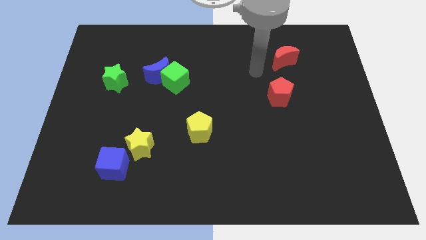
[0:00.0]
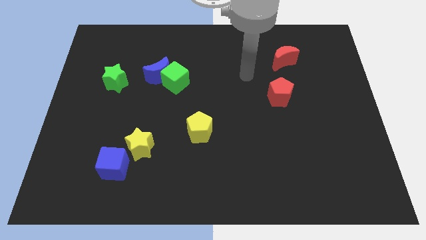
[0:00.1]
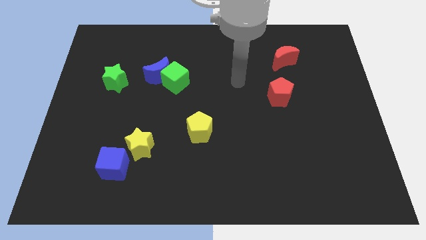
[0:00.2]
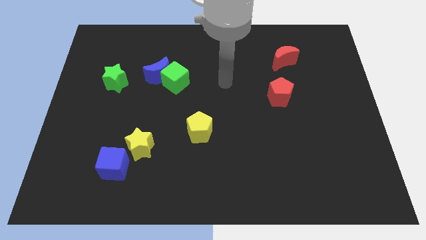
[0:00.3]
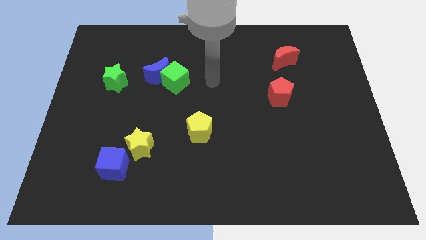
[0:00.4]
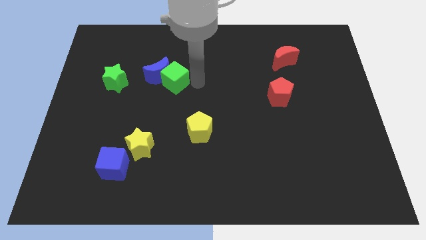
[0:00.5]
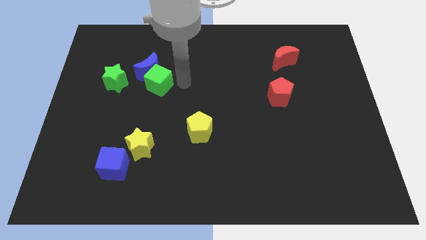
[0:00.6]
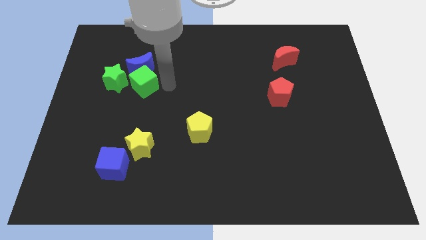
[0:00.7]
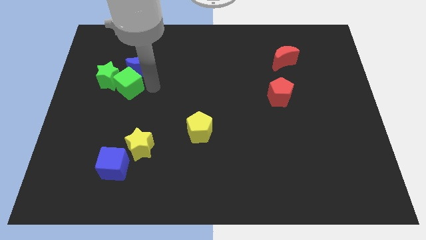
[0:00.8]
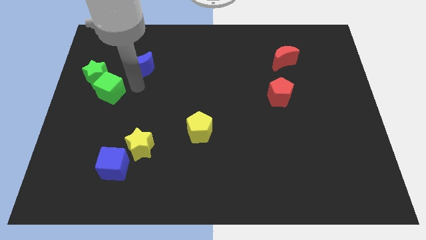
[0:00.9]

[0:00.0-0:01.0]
pull the blue moon apart from the green cube

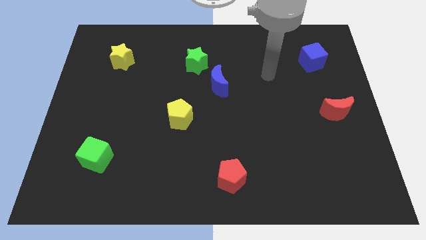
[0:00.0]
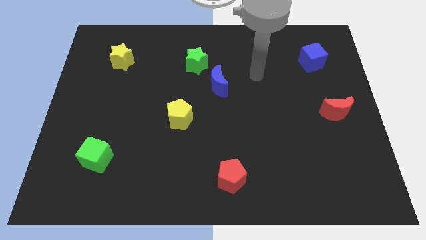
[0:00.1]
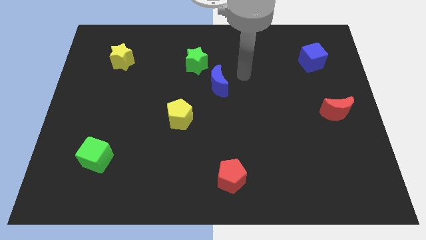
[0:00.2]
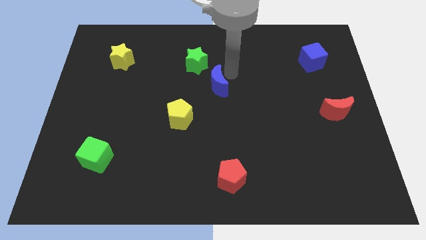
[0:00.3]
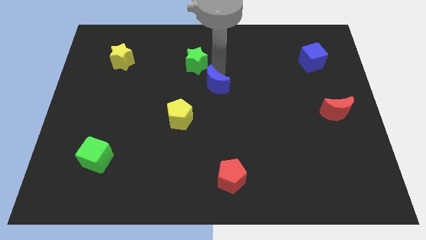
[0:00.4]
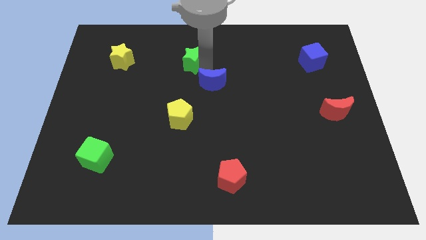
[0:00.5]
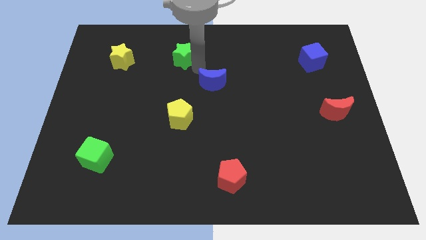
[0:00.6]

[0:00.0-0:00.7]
separate the blue moon from the green star

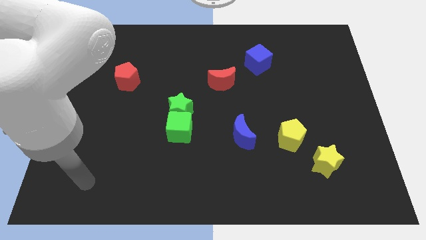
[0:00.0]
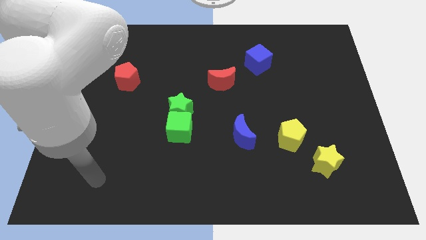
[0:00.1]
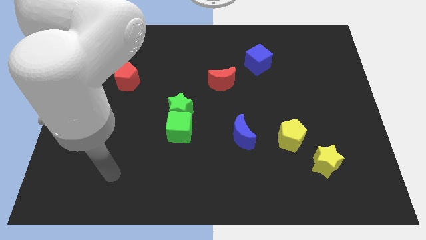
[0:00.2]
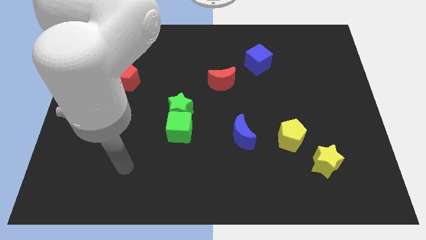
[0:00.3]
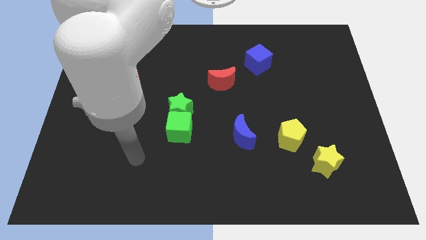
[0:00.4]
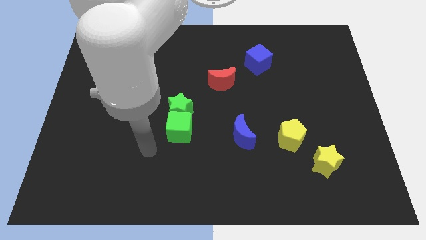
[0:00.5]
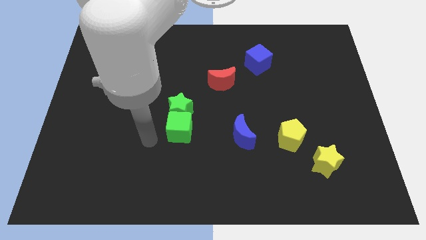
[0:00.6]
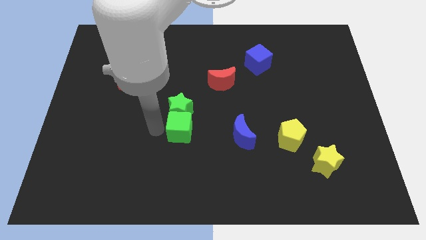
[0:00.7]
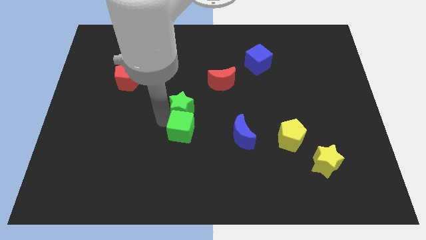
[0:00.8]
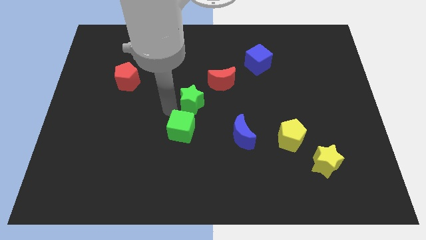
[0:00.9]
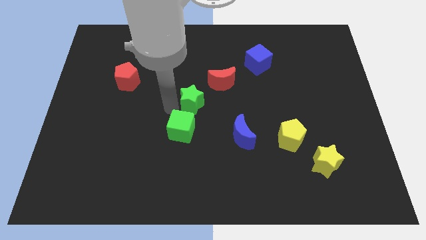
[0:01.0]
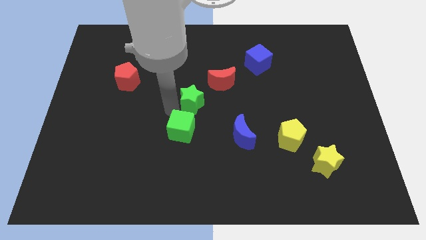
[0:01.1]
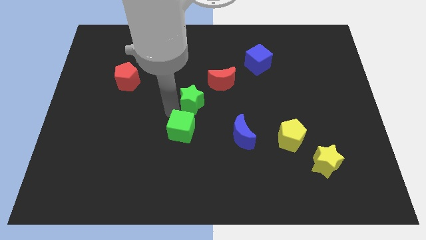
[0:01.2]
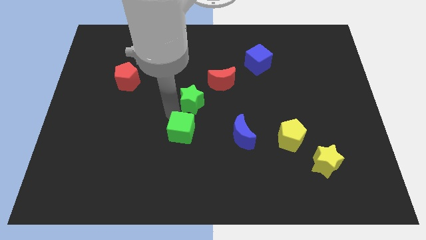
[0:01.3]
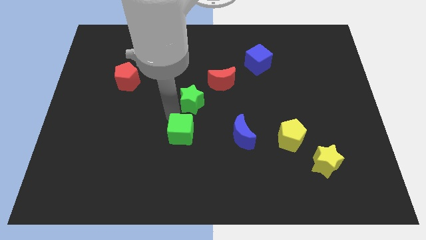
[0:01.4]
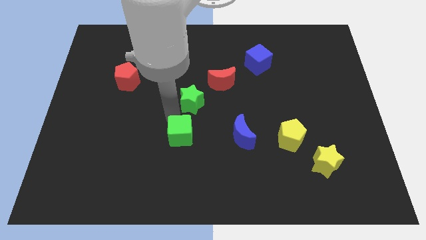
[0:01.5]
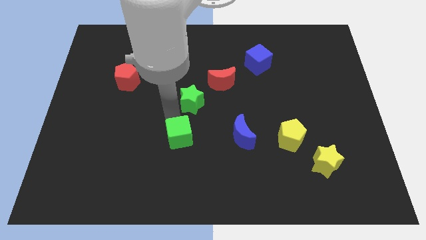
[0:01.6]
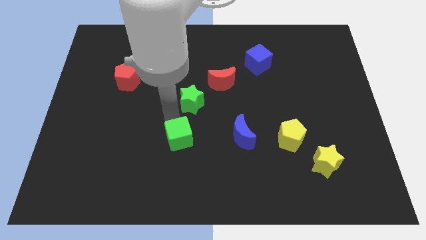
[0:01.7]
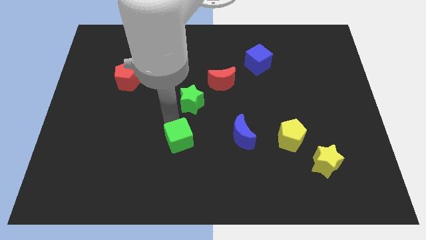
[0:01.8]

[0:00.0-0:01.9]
separate the green cube from the green star

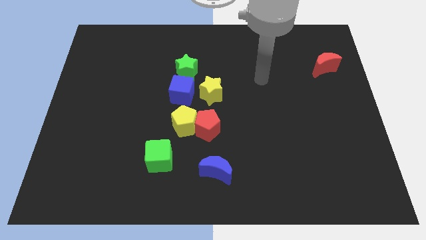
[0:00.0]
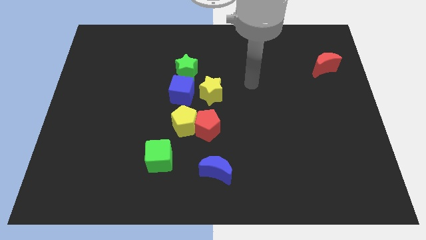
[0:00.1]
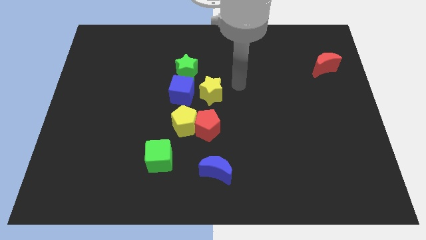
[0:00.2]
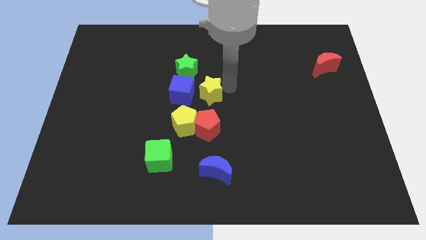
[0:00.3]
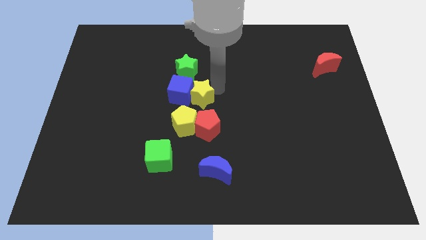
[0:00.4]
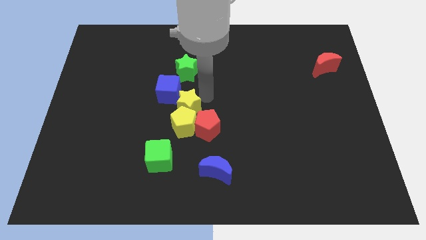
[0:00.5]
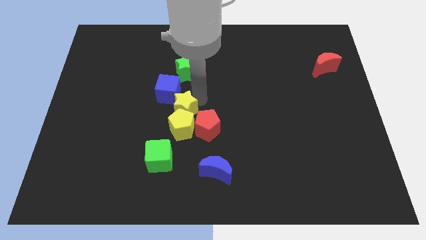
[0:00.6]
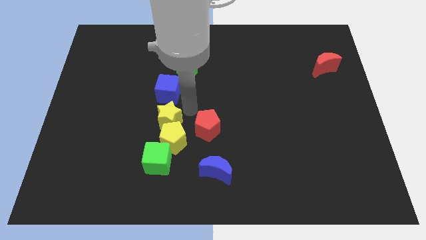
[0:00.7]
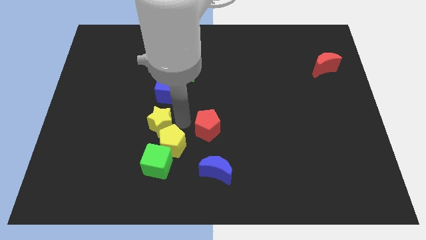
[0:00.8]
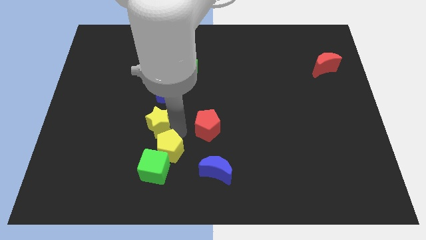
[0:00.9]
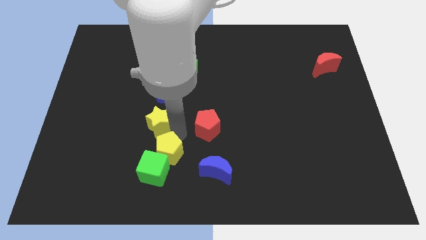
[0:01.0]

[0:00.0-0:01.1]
pull the red pentagon apart from the yellow pentagon and yellow star

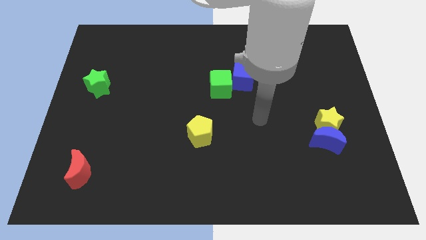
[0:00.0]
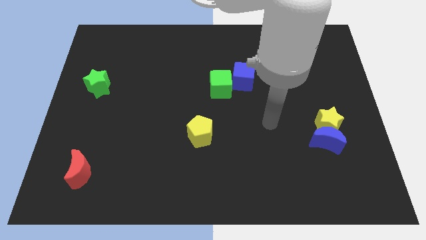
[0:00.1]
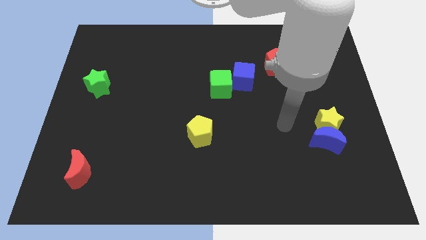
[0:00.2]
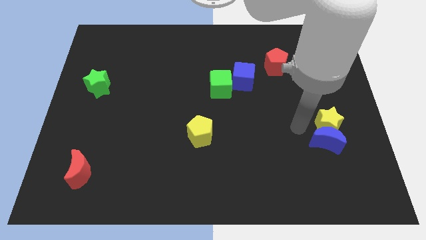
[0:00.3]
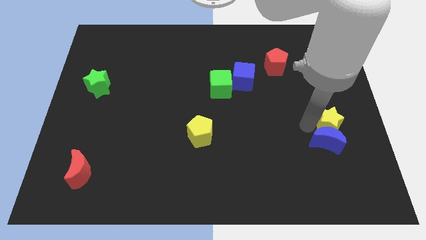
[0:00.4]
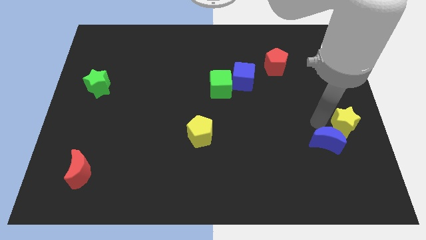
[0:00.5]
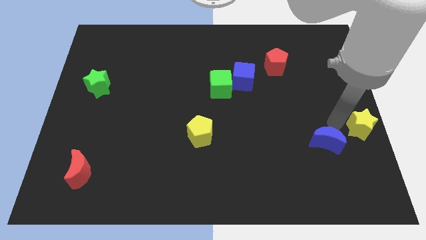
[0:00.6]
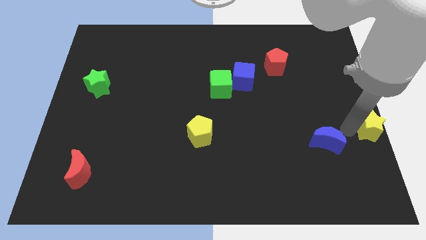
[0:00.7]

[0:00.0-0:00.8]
move the blue moon away from the yellow star

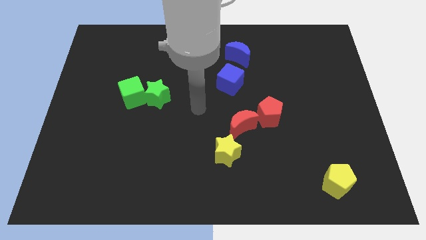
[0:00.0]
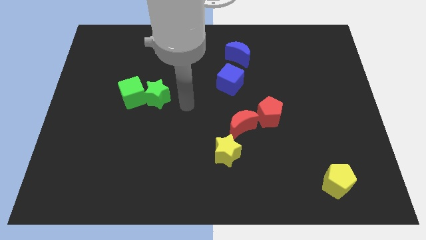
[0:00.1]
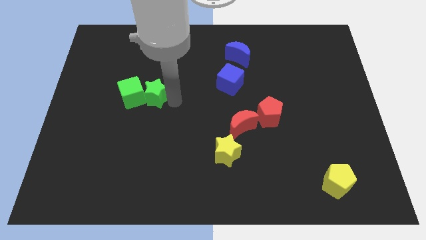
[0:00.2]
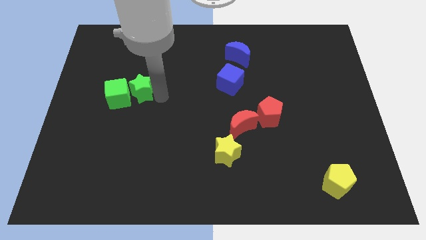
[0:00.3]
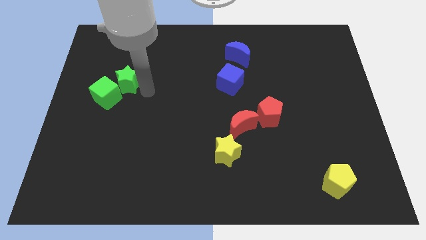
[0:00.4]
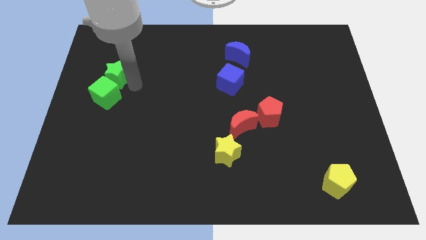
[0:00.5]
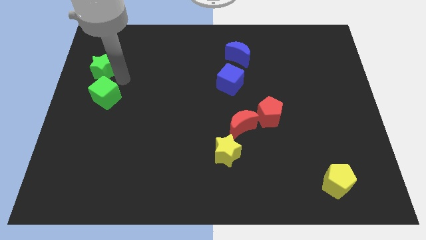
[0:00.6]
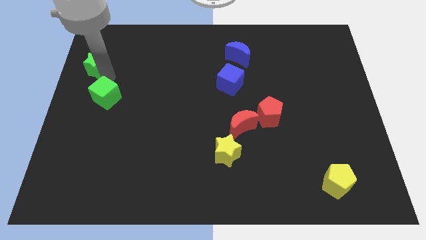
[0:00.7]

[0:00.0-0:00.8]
move the green cube away from the green star

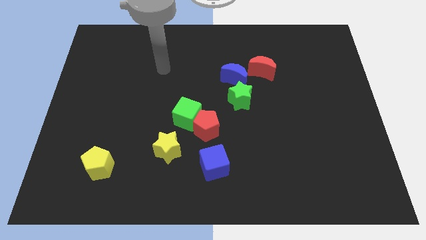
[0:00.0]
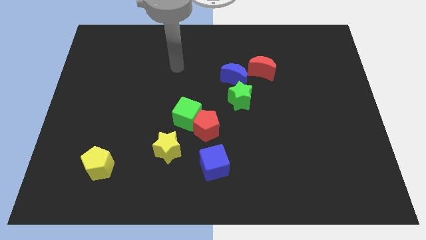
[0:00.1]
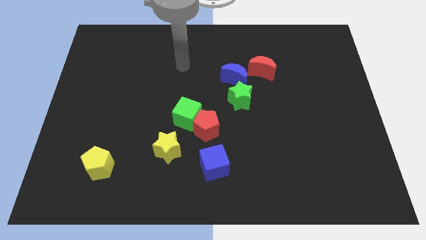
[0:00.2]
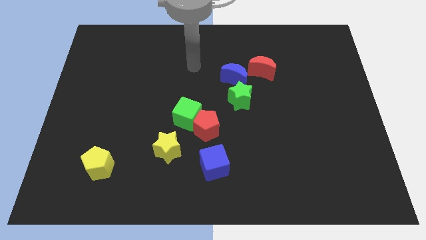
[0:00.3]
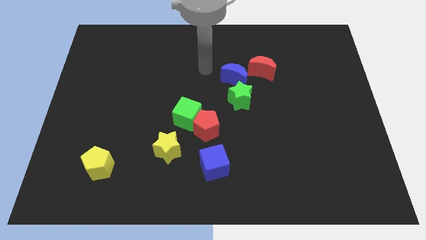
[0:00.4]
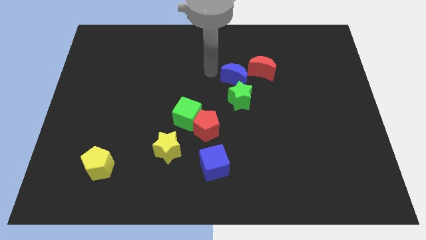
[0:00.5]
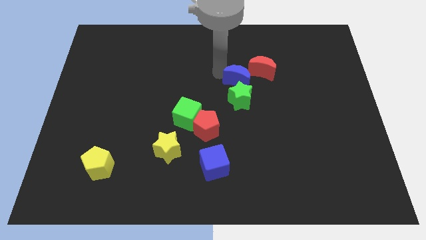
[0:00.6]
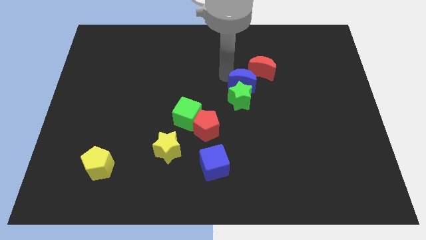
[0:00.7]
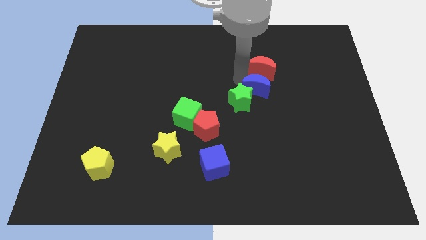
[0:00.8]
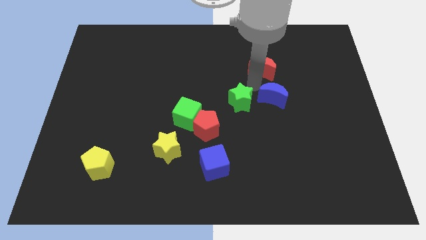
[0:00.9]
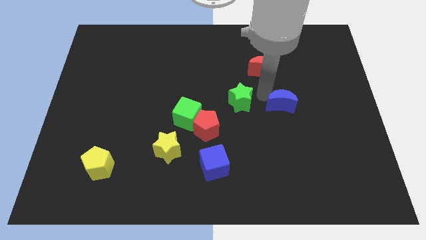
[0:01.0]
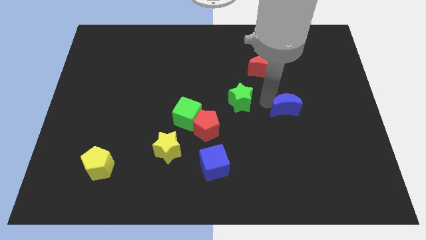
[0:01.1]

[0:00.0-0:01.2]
move the green star away from the blue moon

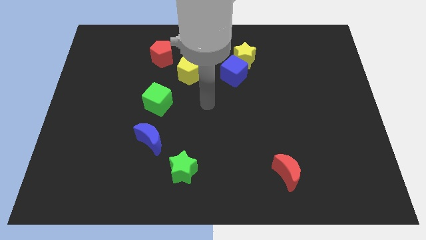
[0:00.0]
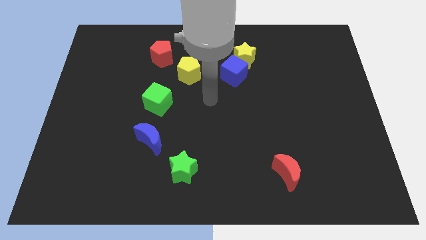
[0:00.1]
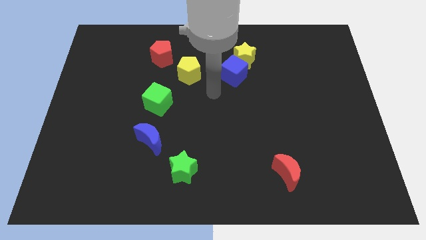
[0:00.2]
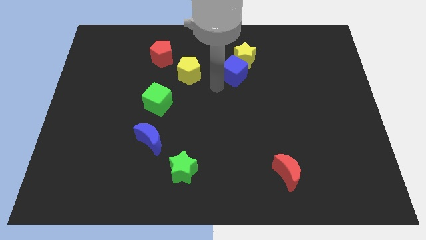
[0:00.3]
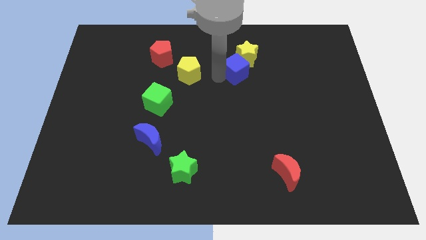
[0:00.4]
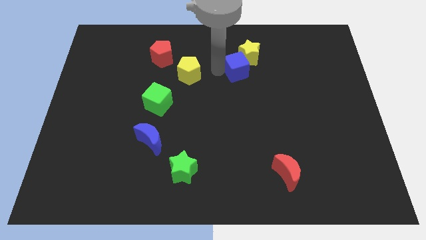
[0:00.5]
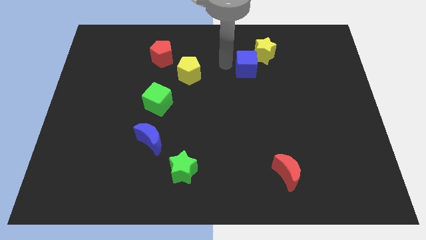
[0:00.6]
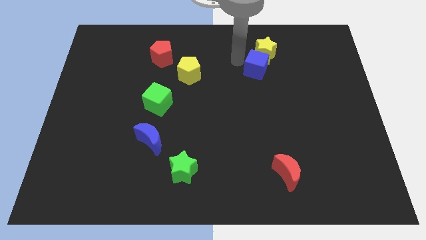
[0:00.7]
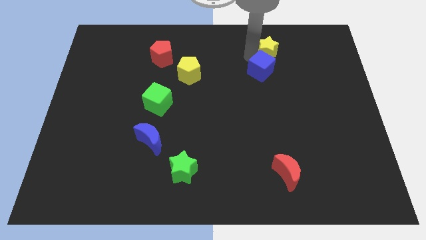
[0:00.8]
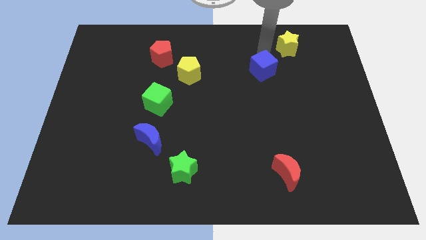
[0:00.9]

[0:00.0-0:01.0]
move the blue cube away from the yellow star

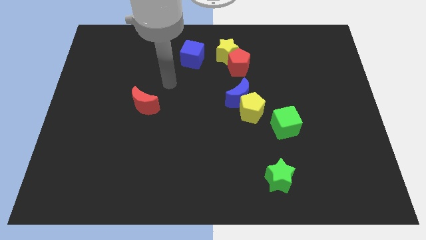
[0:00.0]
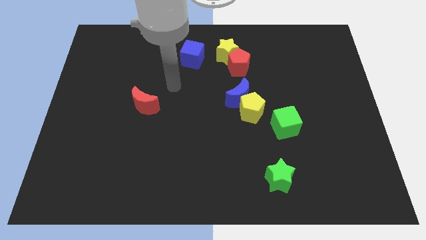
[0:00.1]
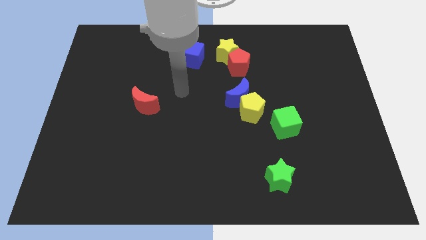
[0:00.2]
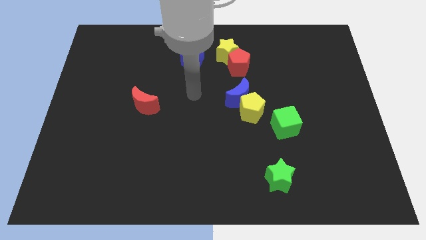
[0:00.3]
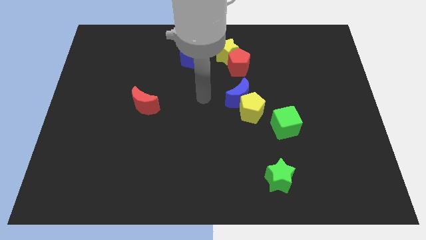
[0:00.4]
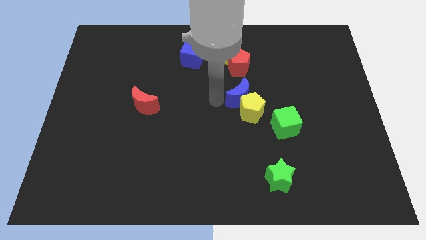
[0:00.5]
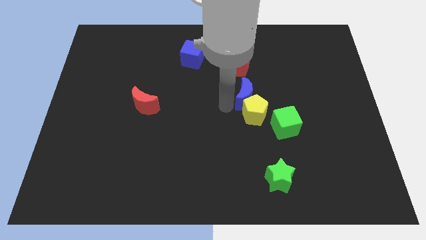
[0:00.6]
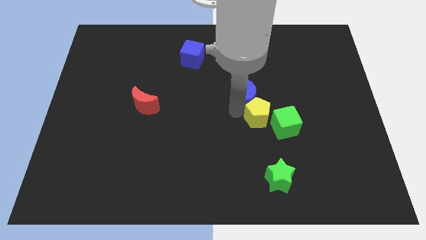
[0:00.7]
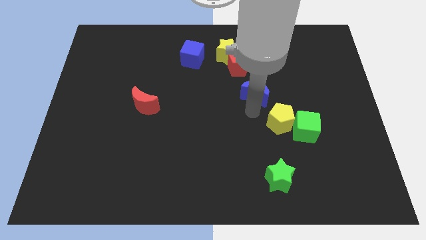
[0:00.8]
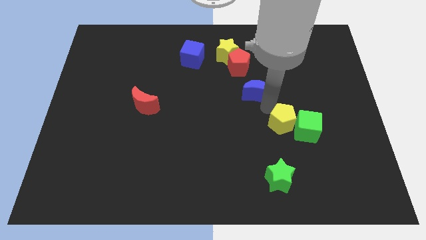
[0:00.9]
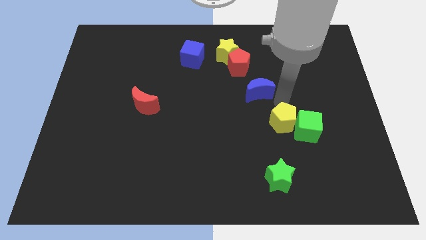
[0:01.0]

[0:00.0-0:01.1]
separate the blue moon from the yellow pentagon
